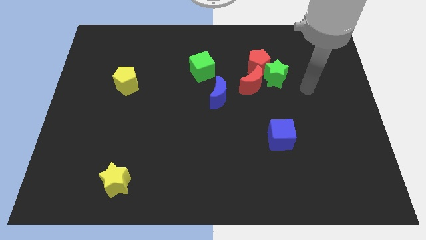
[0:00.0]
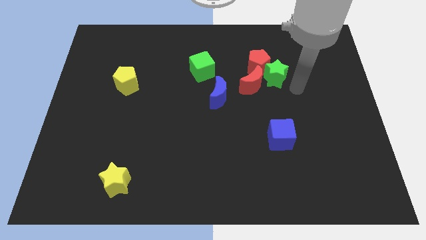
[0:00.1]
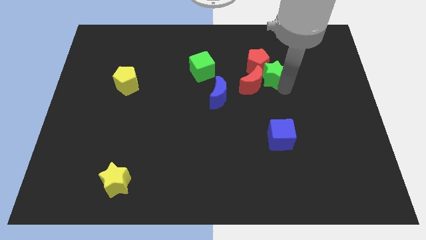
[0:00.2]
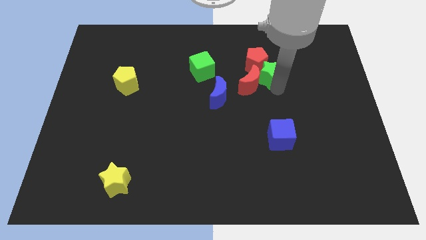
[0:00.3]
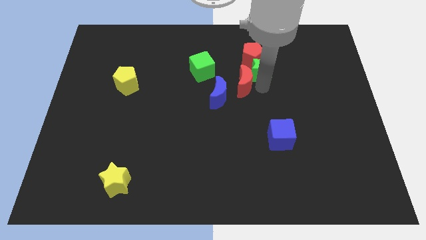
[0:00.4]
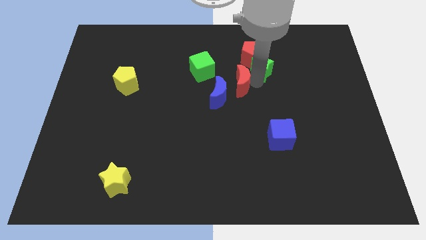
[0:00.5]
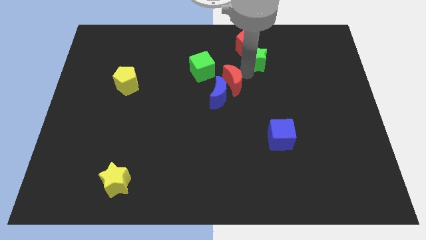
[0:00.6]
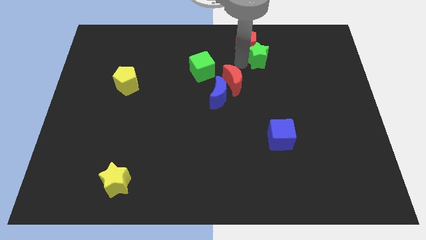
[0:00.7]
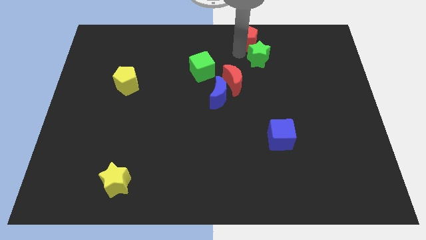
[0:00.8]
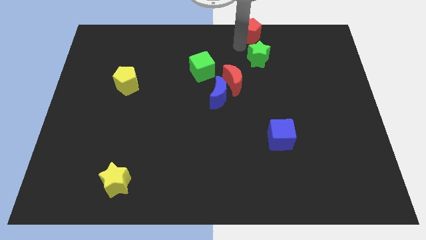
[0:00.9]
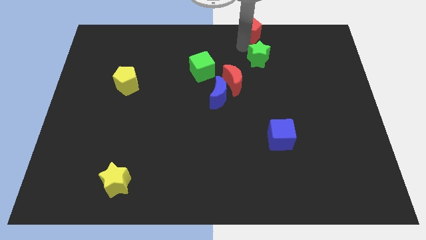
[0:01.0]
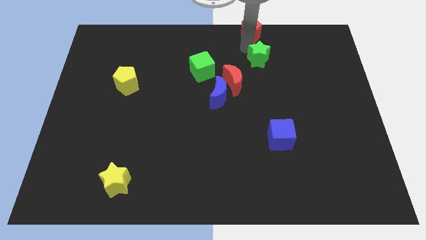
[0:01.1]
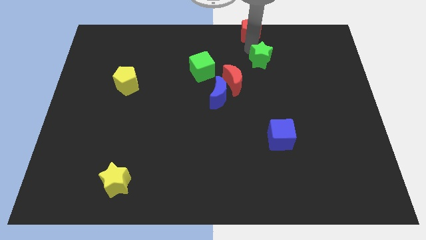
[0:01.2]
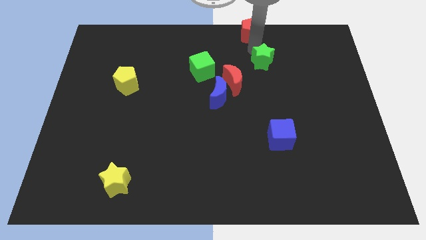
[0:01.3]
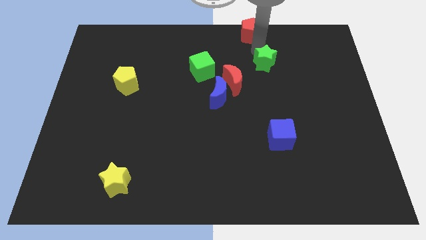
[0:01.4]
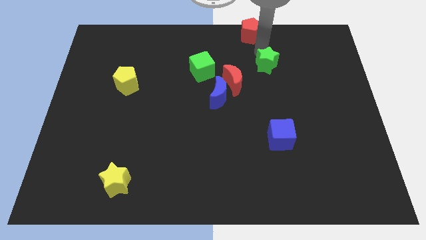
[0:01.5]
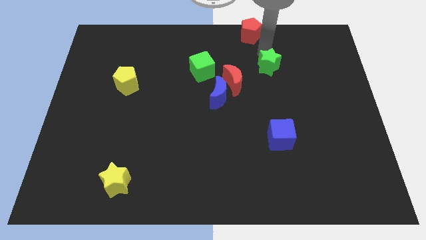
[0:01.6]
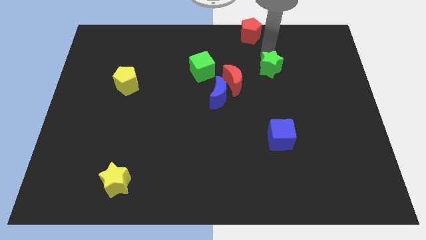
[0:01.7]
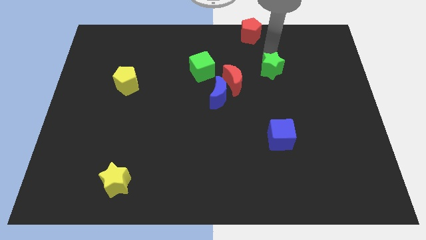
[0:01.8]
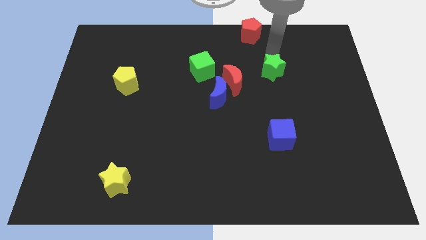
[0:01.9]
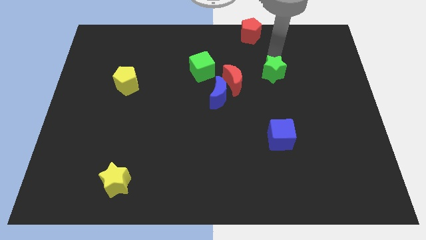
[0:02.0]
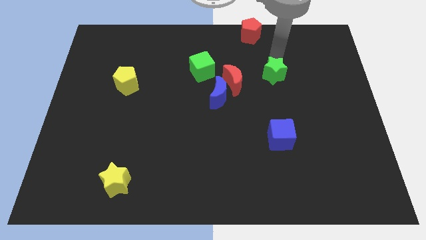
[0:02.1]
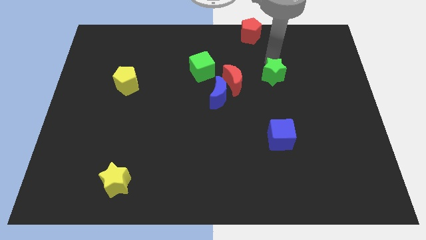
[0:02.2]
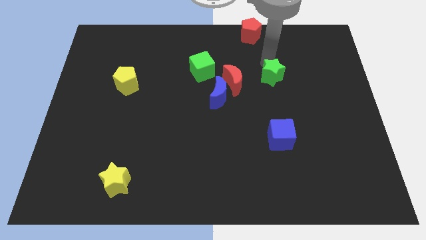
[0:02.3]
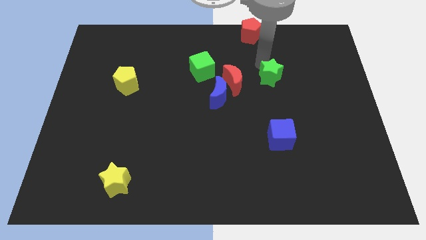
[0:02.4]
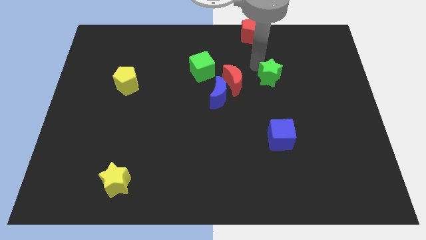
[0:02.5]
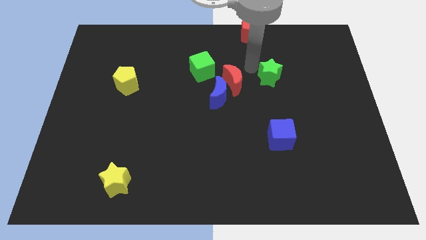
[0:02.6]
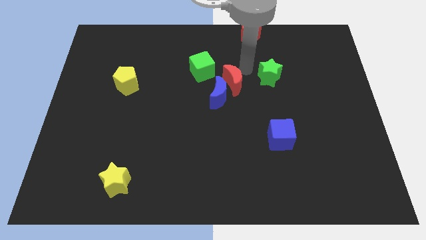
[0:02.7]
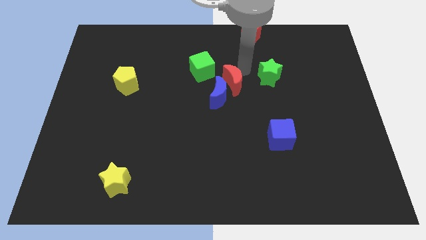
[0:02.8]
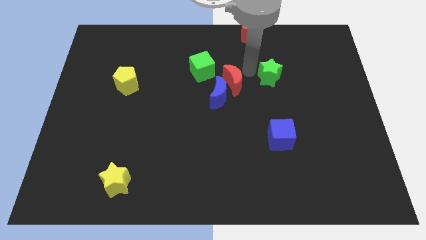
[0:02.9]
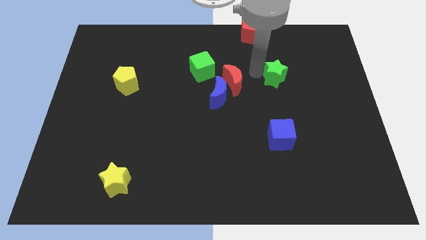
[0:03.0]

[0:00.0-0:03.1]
pull the green star apart from the red pentagon and red moon

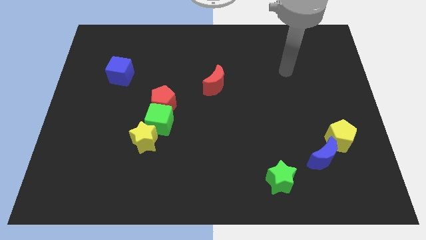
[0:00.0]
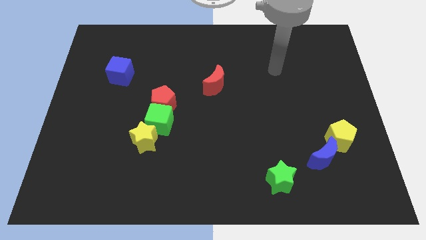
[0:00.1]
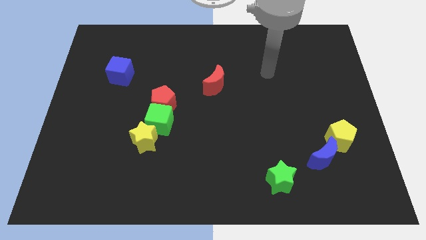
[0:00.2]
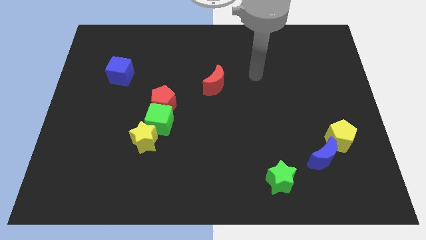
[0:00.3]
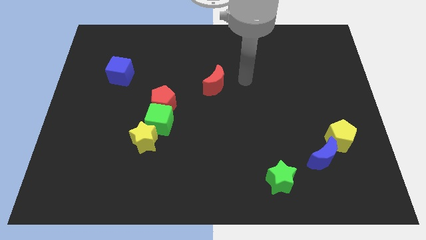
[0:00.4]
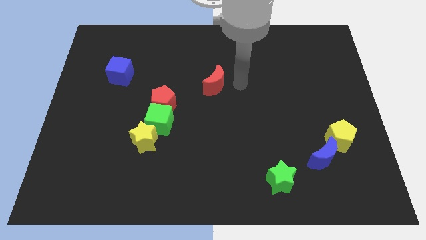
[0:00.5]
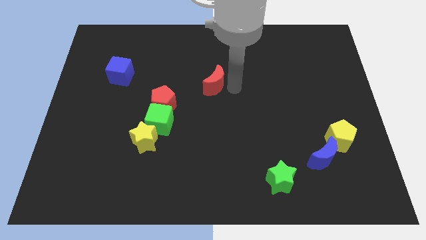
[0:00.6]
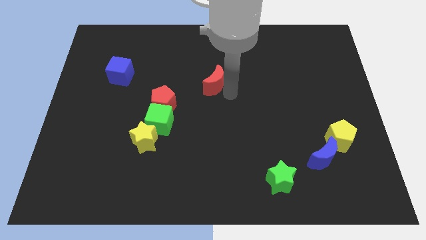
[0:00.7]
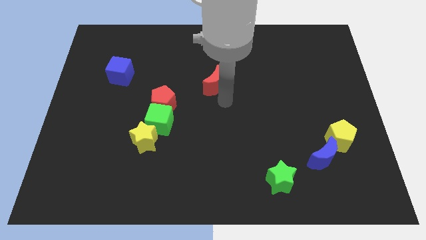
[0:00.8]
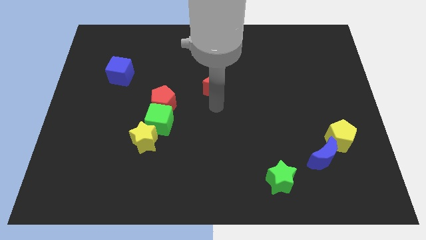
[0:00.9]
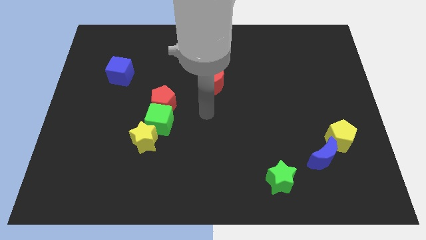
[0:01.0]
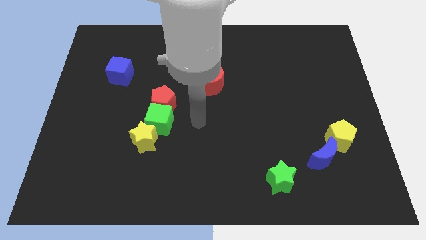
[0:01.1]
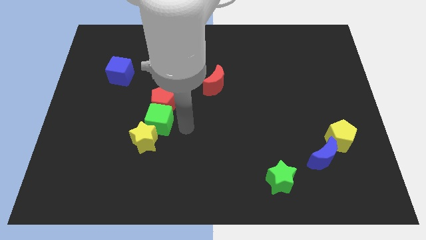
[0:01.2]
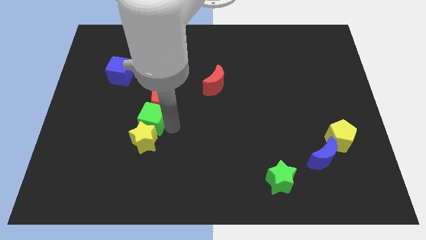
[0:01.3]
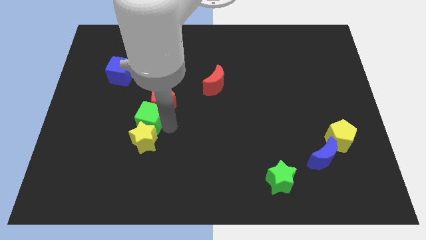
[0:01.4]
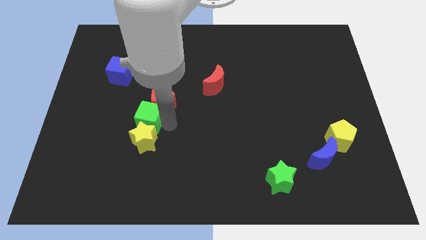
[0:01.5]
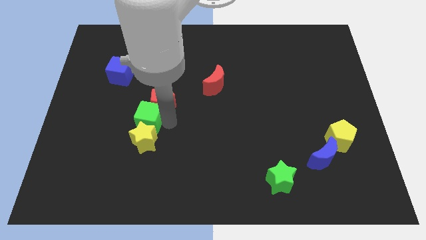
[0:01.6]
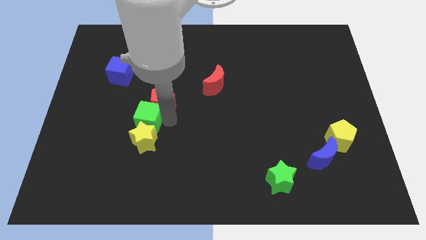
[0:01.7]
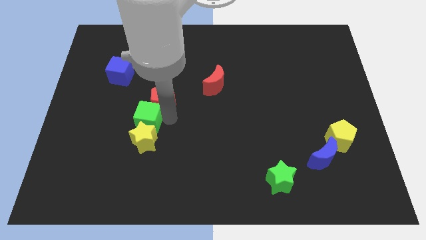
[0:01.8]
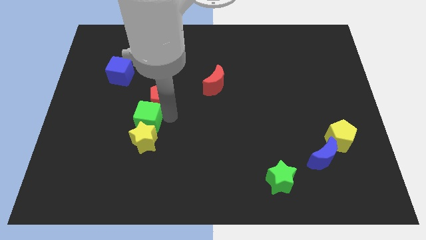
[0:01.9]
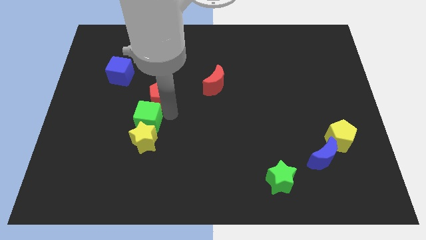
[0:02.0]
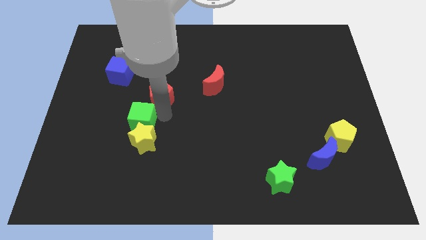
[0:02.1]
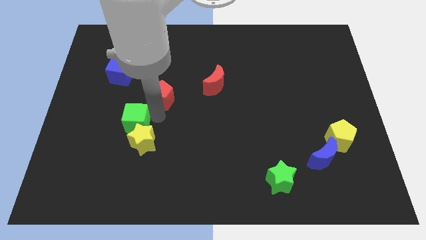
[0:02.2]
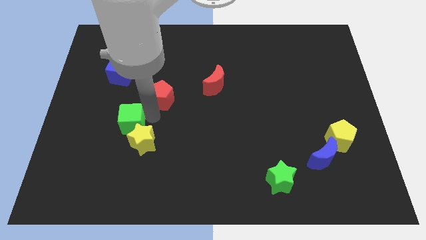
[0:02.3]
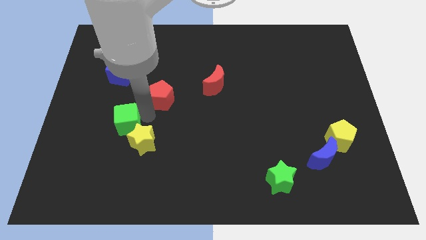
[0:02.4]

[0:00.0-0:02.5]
separate the red pentagon from the green cube

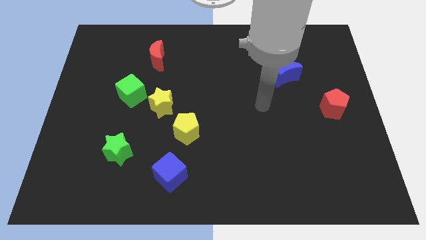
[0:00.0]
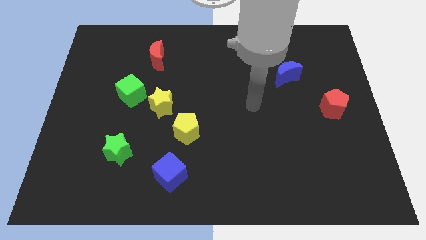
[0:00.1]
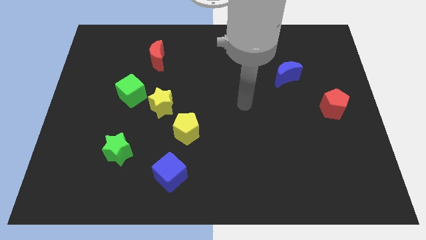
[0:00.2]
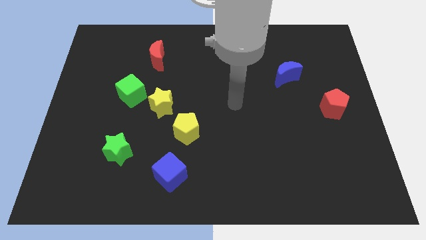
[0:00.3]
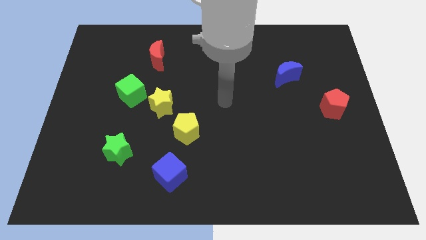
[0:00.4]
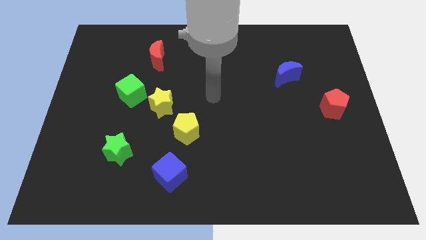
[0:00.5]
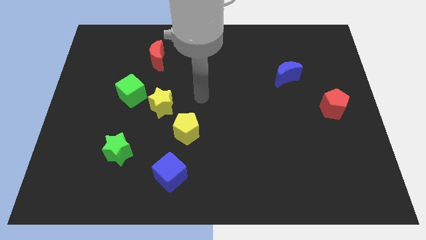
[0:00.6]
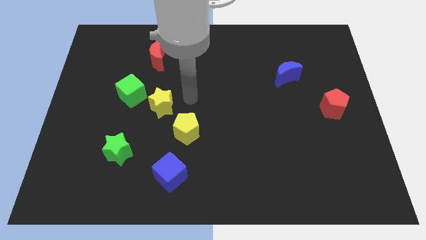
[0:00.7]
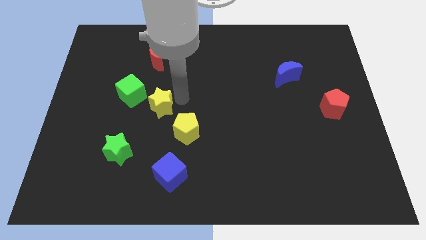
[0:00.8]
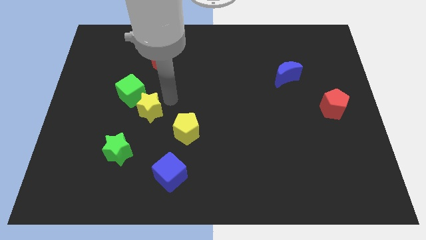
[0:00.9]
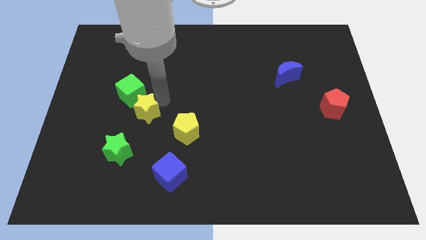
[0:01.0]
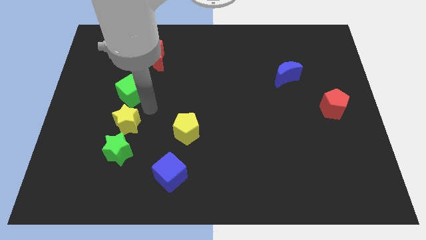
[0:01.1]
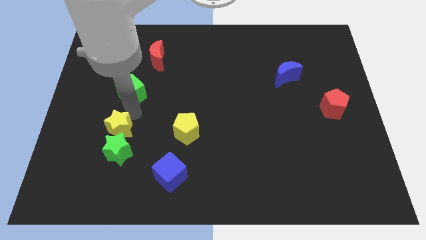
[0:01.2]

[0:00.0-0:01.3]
separate the green cube from the yellow star

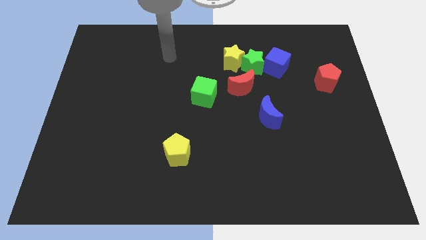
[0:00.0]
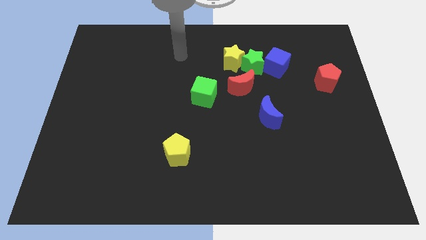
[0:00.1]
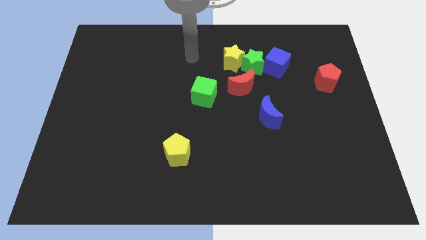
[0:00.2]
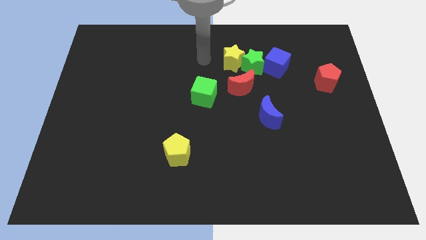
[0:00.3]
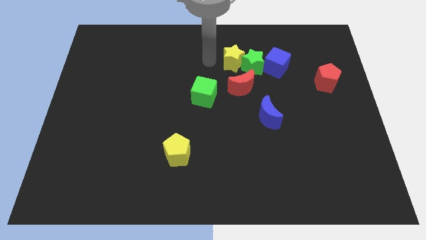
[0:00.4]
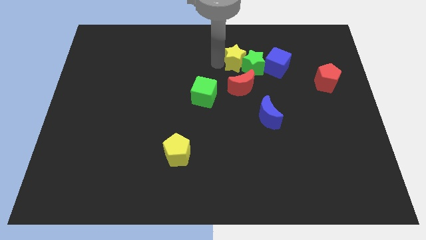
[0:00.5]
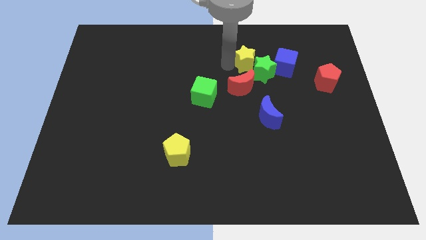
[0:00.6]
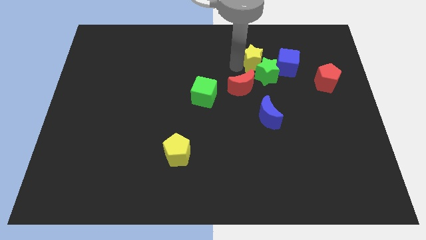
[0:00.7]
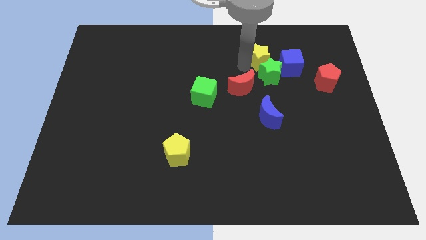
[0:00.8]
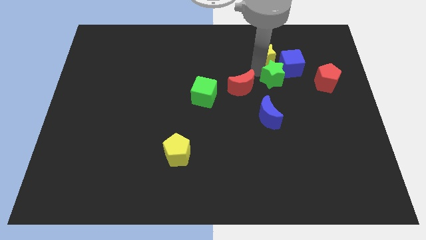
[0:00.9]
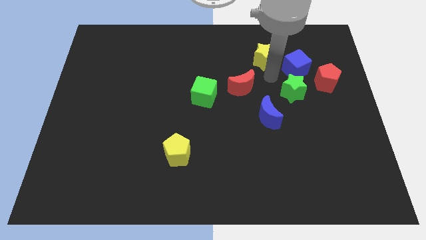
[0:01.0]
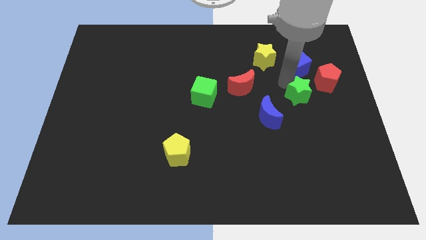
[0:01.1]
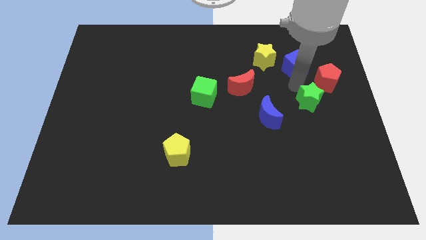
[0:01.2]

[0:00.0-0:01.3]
pull the blue cube apart from the green star

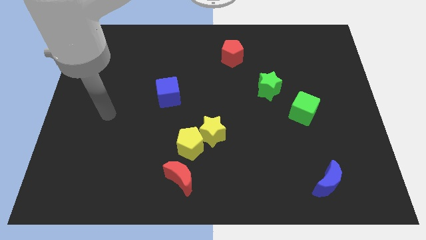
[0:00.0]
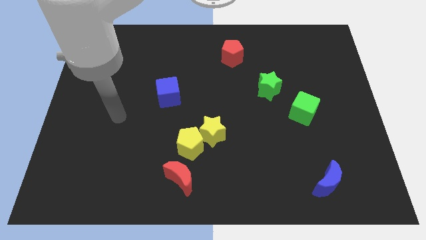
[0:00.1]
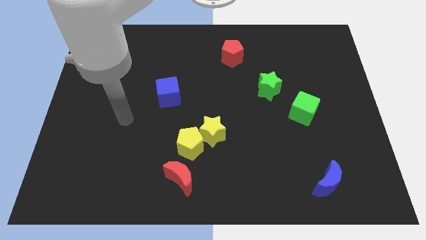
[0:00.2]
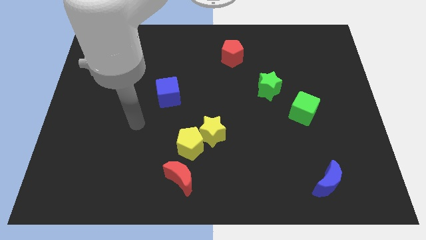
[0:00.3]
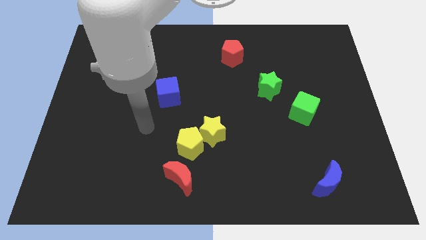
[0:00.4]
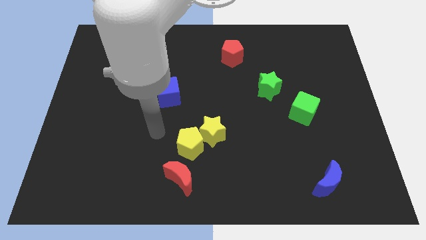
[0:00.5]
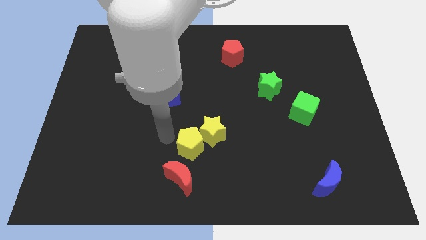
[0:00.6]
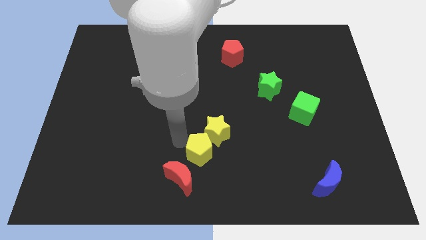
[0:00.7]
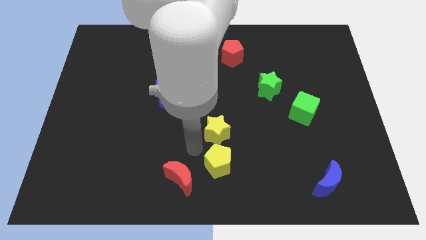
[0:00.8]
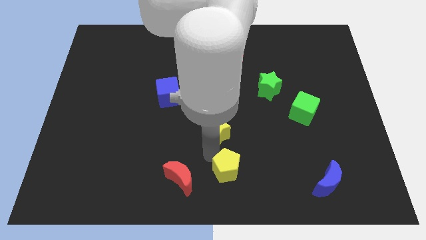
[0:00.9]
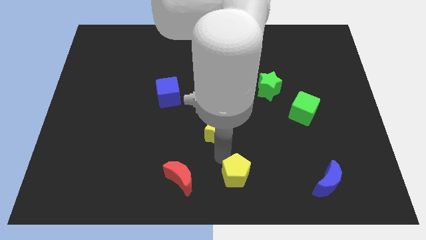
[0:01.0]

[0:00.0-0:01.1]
separate the yellow star from the yellow pentagon
